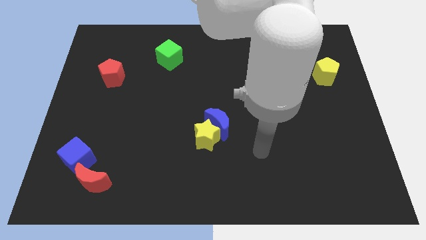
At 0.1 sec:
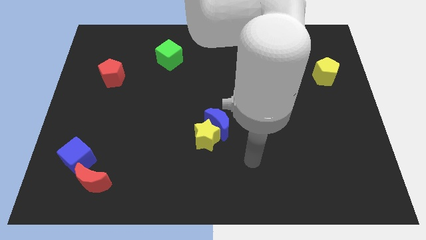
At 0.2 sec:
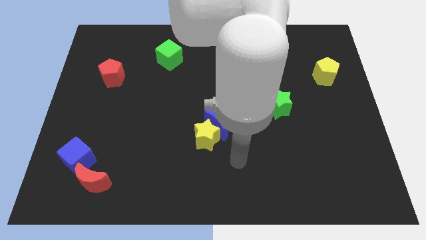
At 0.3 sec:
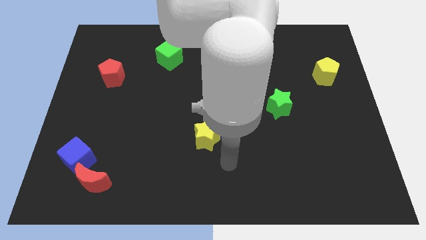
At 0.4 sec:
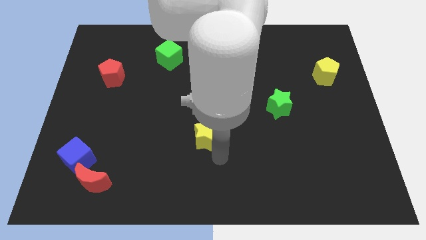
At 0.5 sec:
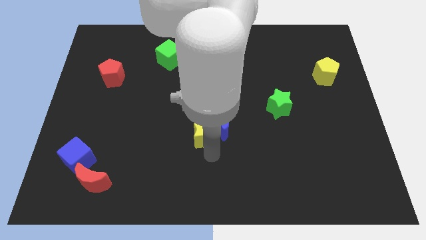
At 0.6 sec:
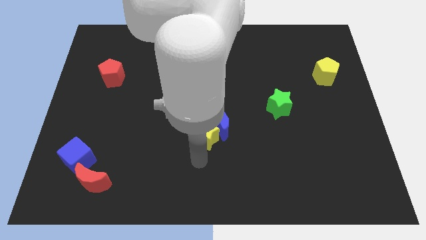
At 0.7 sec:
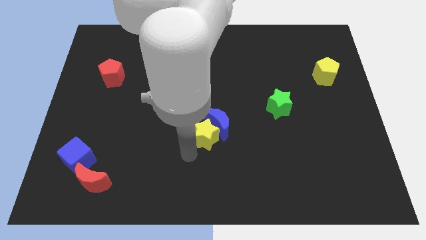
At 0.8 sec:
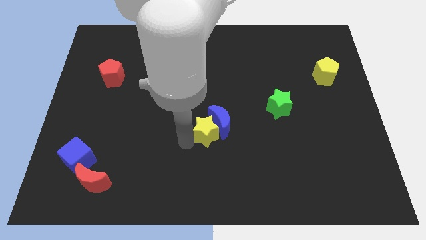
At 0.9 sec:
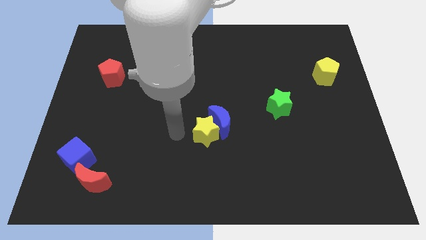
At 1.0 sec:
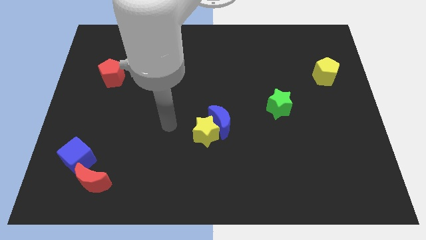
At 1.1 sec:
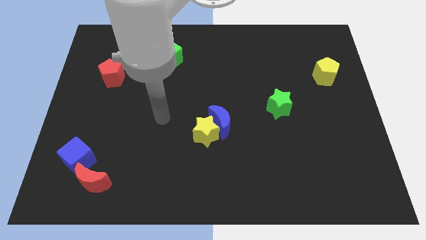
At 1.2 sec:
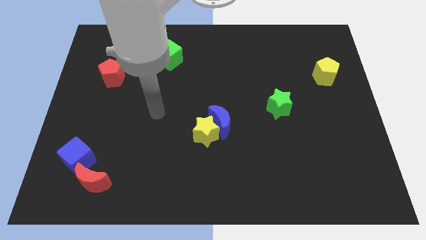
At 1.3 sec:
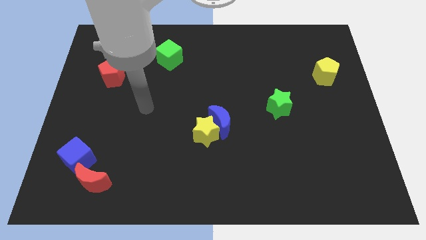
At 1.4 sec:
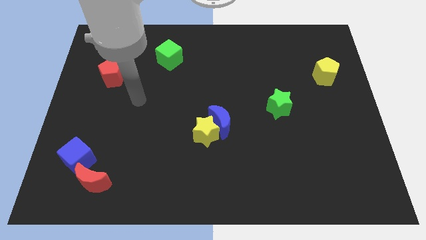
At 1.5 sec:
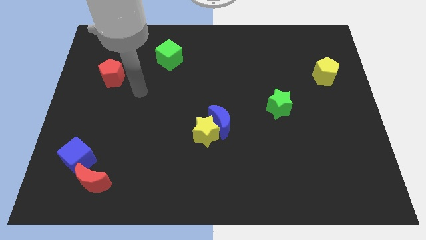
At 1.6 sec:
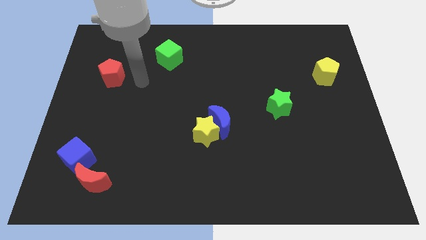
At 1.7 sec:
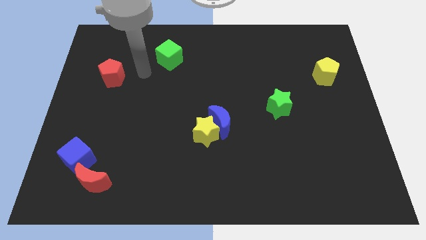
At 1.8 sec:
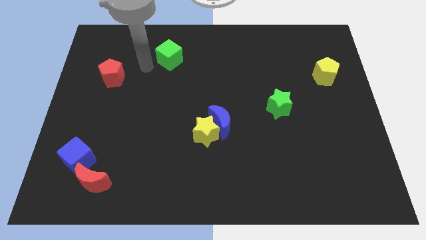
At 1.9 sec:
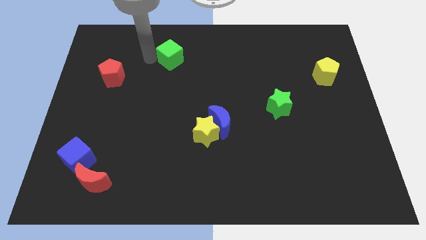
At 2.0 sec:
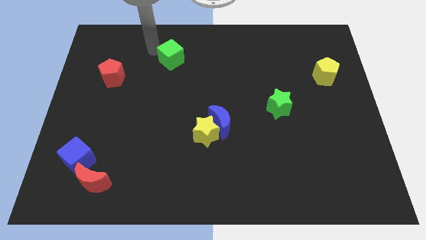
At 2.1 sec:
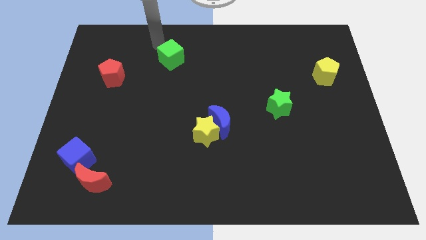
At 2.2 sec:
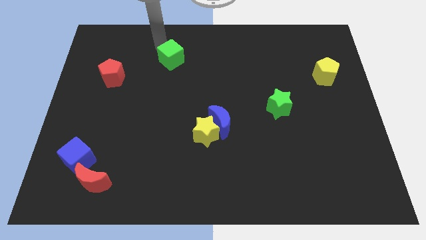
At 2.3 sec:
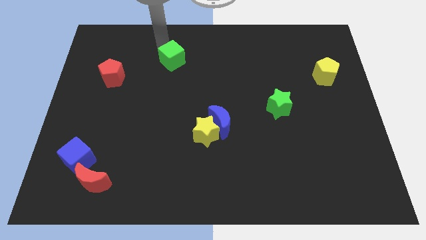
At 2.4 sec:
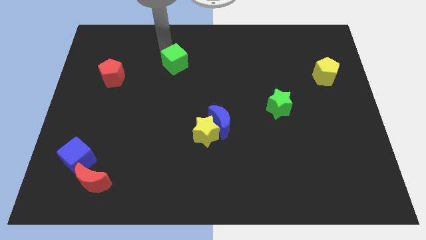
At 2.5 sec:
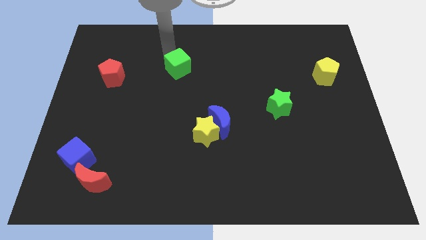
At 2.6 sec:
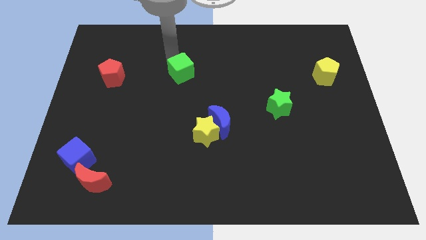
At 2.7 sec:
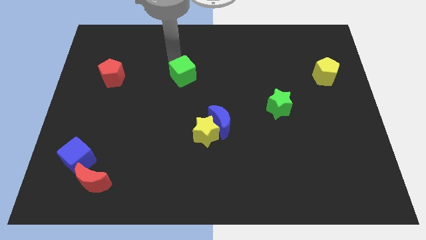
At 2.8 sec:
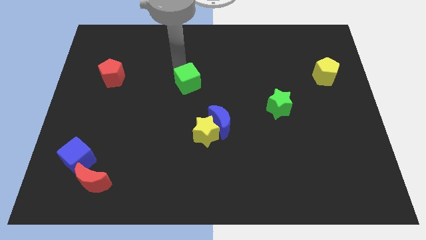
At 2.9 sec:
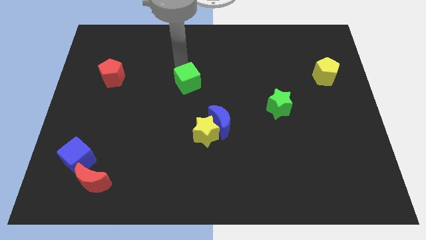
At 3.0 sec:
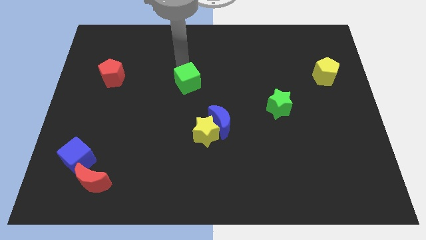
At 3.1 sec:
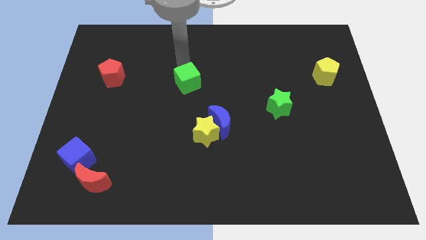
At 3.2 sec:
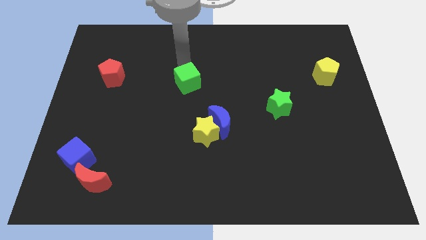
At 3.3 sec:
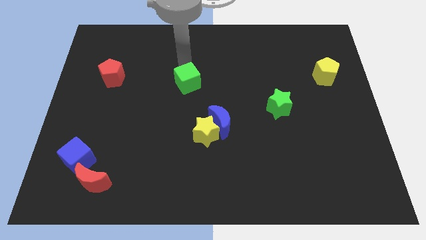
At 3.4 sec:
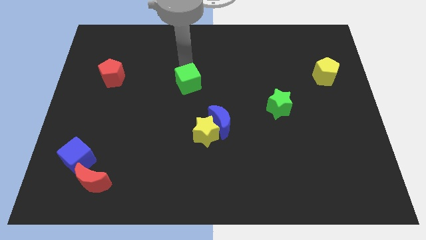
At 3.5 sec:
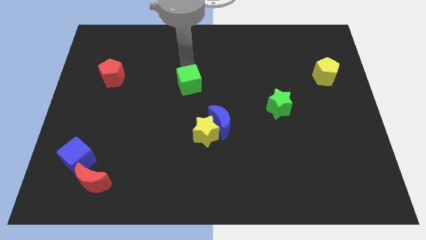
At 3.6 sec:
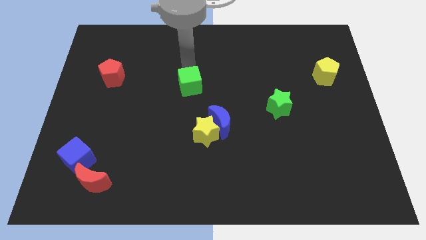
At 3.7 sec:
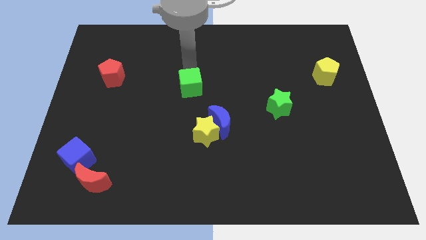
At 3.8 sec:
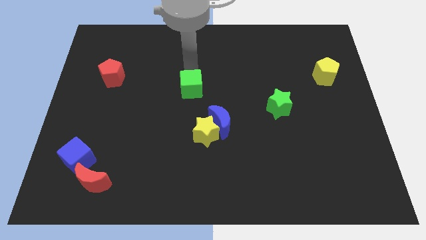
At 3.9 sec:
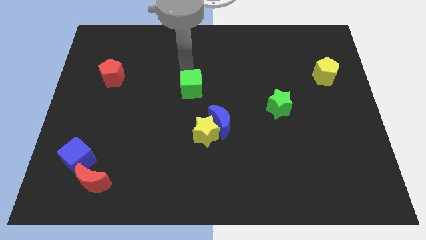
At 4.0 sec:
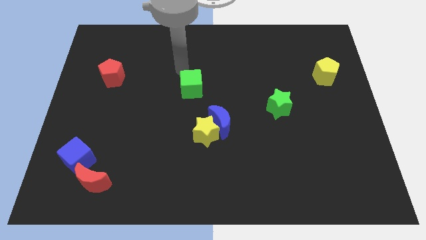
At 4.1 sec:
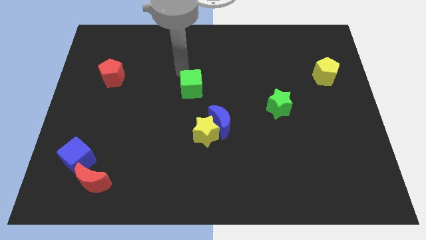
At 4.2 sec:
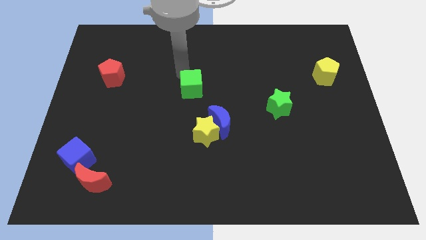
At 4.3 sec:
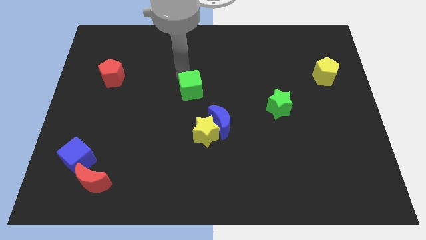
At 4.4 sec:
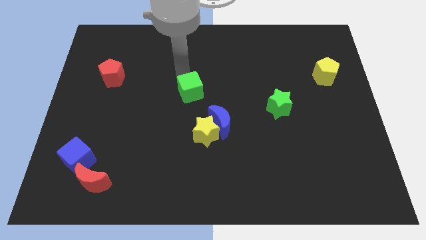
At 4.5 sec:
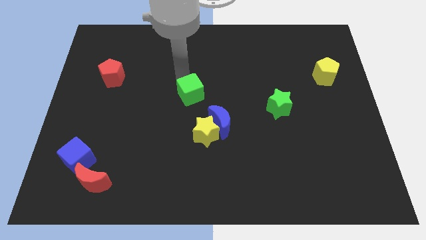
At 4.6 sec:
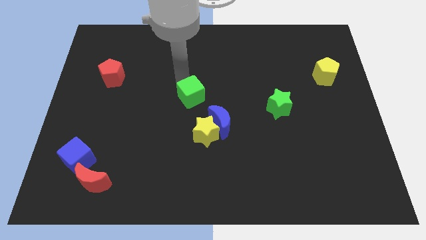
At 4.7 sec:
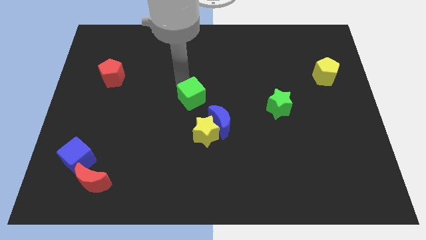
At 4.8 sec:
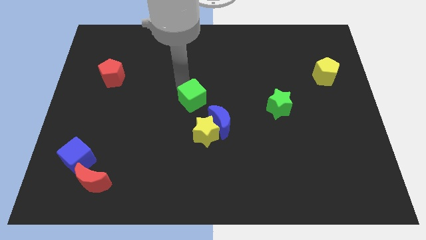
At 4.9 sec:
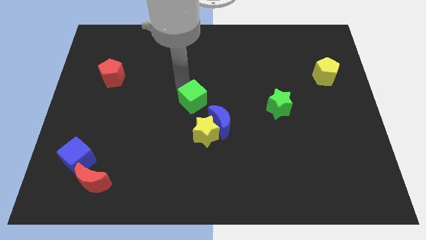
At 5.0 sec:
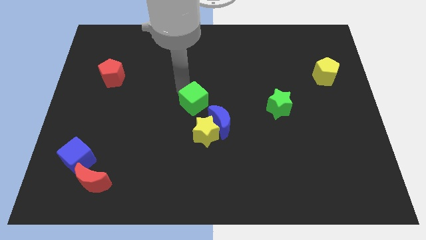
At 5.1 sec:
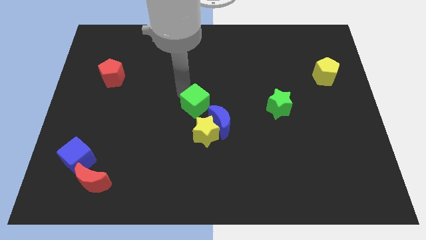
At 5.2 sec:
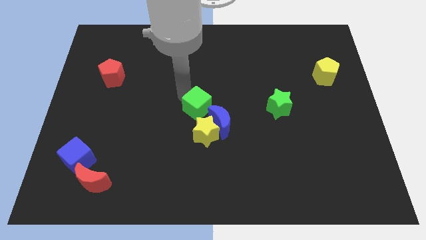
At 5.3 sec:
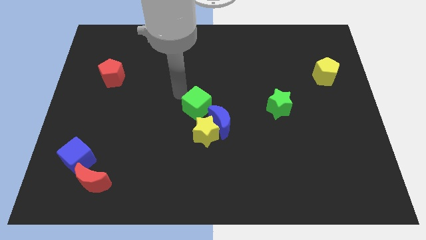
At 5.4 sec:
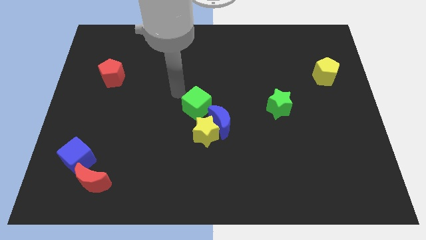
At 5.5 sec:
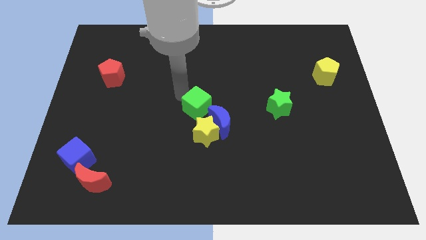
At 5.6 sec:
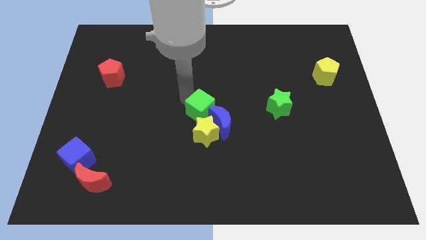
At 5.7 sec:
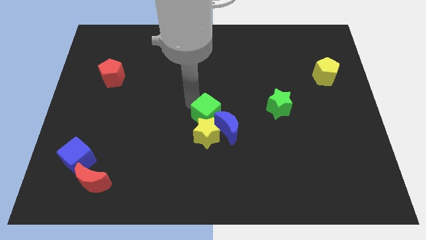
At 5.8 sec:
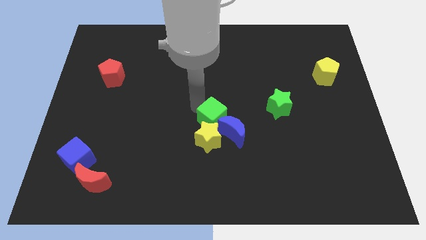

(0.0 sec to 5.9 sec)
slide the green cube close to the blue moon
